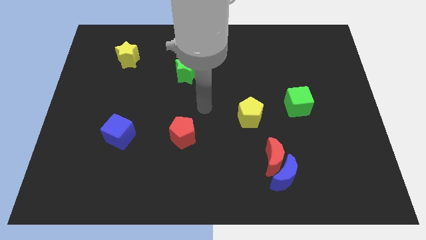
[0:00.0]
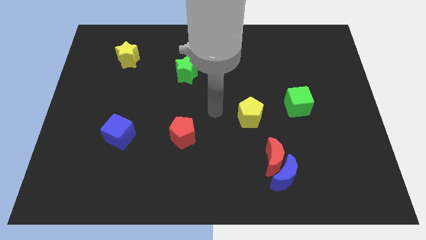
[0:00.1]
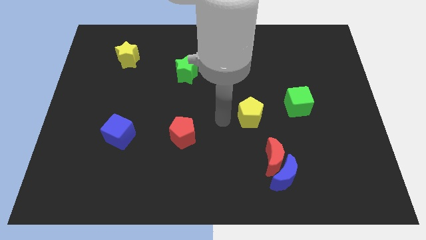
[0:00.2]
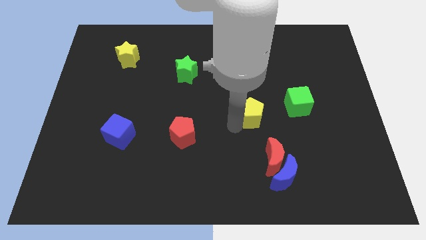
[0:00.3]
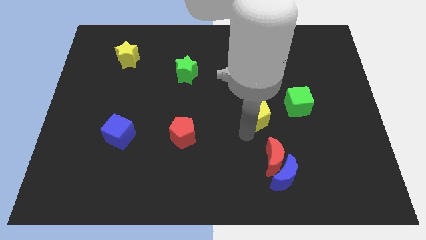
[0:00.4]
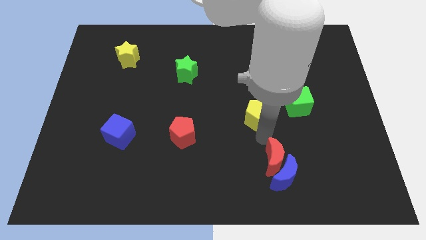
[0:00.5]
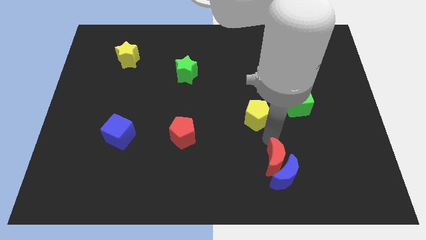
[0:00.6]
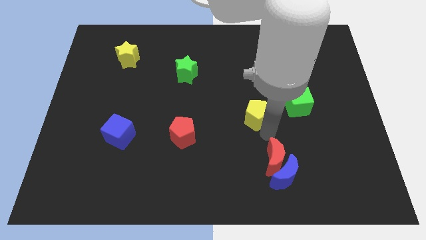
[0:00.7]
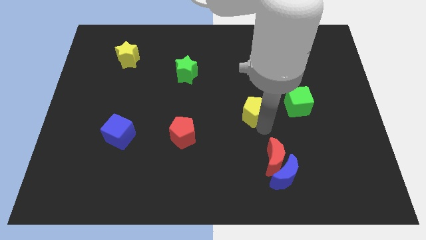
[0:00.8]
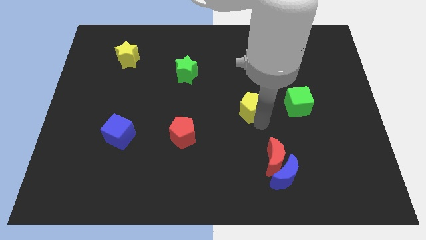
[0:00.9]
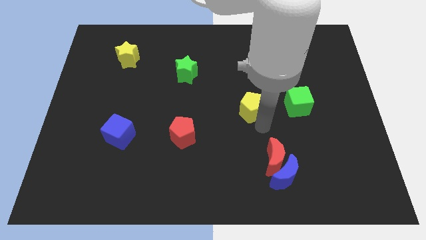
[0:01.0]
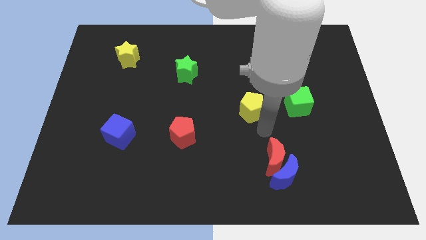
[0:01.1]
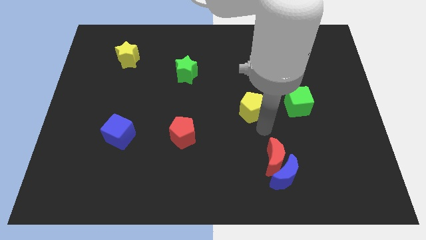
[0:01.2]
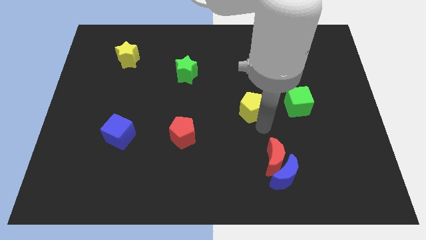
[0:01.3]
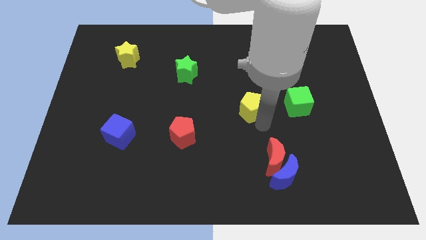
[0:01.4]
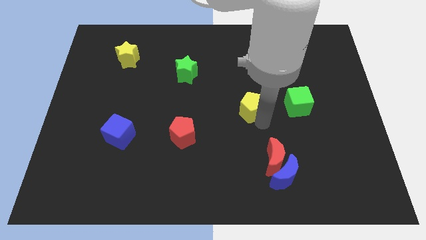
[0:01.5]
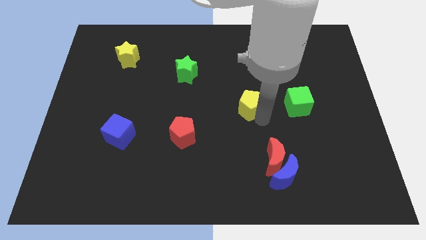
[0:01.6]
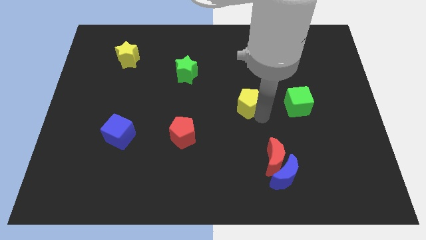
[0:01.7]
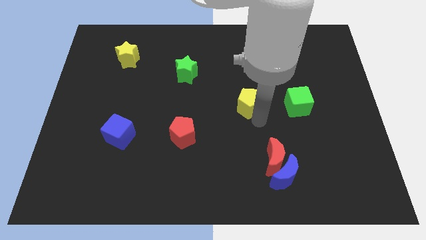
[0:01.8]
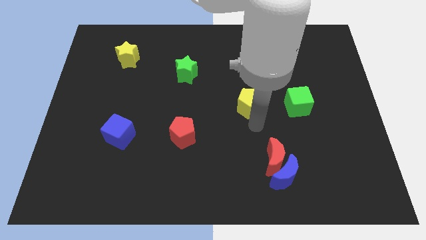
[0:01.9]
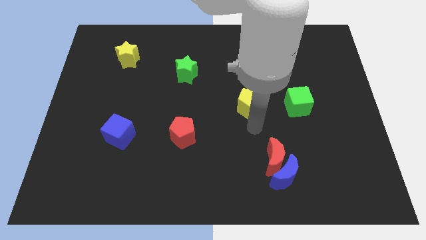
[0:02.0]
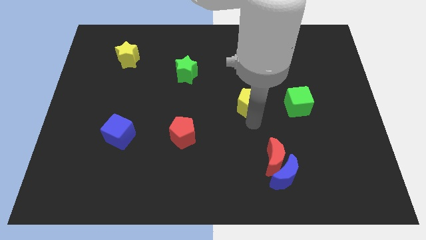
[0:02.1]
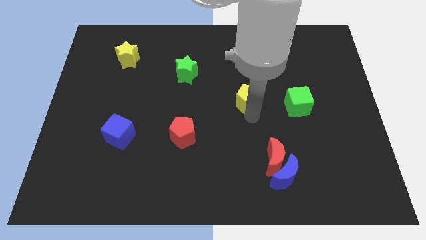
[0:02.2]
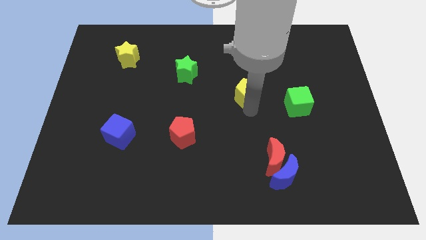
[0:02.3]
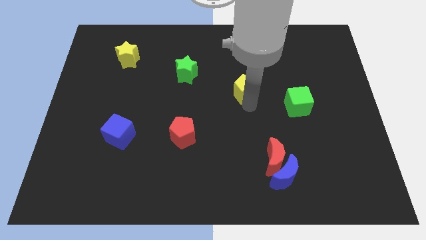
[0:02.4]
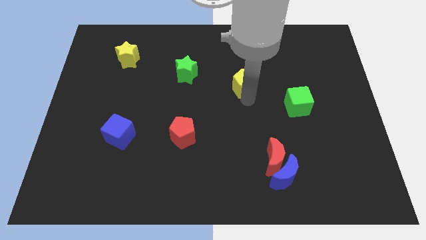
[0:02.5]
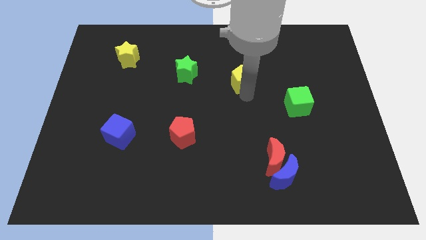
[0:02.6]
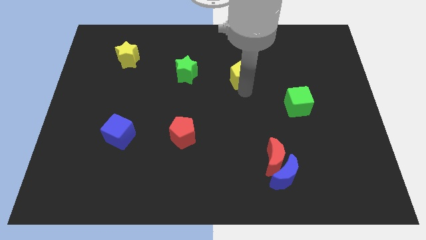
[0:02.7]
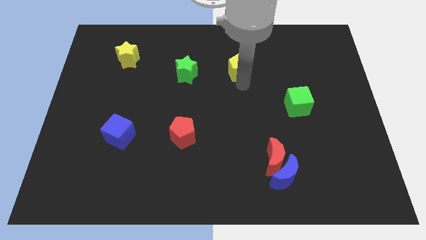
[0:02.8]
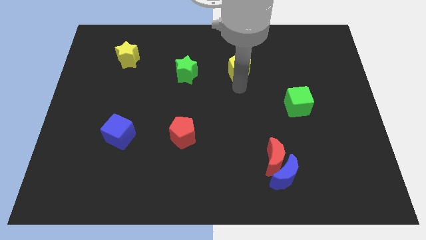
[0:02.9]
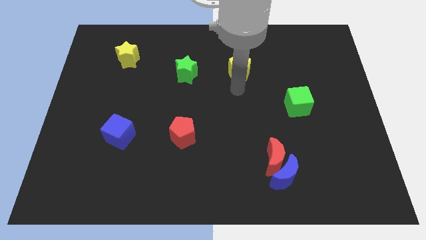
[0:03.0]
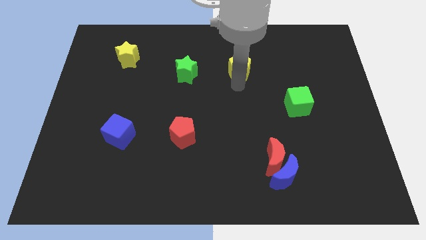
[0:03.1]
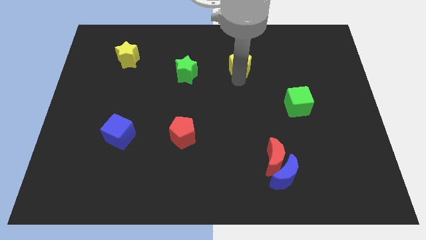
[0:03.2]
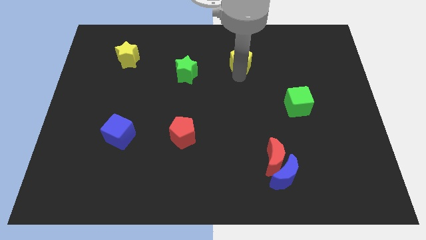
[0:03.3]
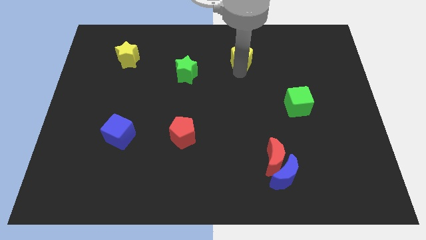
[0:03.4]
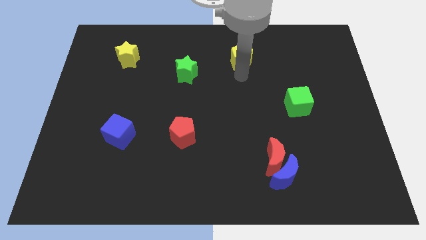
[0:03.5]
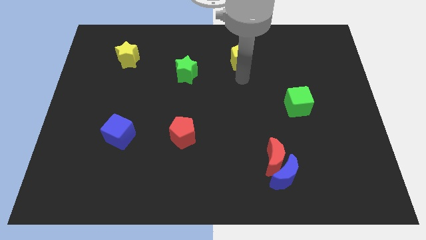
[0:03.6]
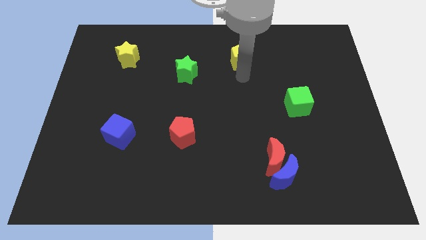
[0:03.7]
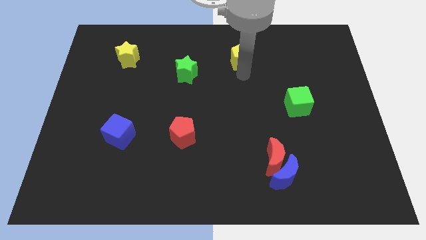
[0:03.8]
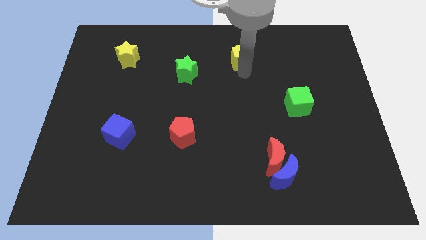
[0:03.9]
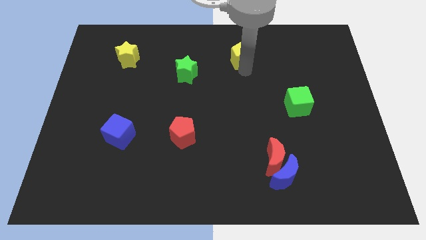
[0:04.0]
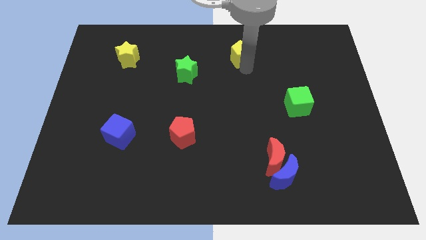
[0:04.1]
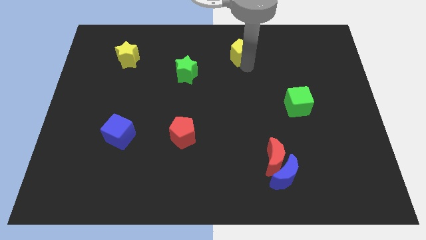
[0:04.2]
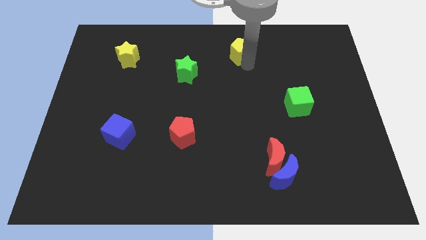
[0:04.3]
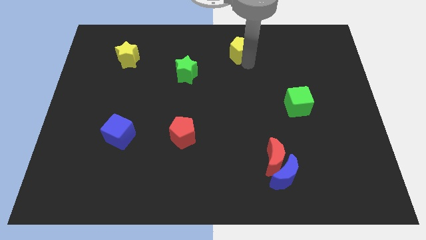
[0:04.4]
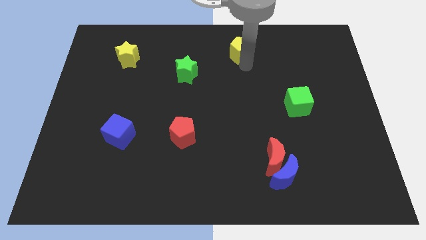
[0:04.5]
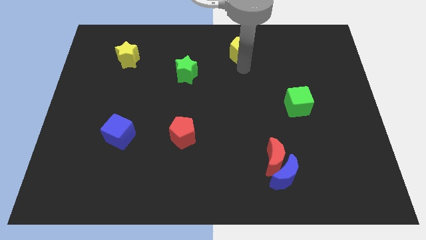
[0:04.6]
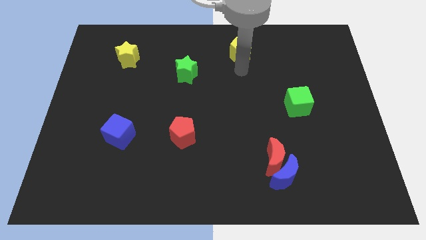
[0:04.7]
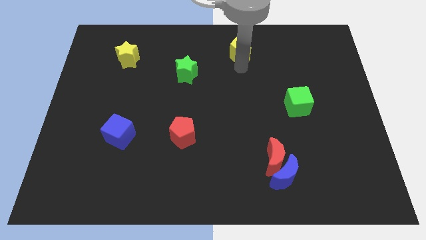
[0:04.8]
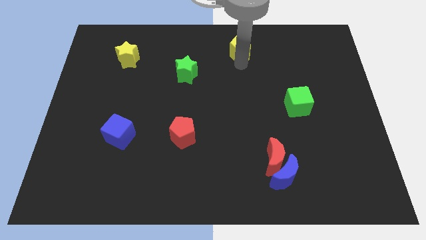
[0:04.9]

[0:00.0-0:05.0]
push the yellow pentagon to the top side

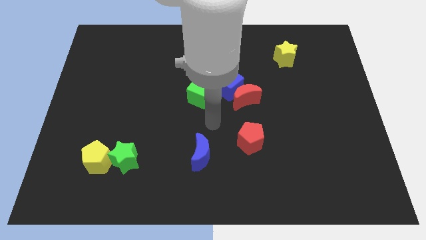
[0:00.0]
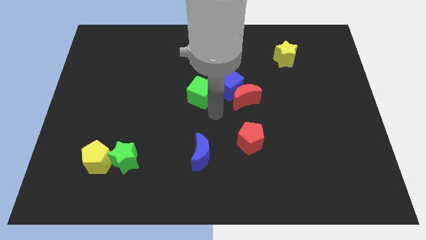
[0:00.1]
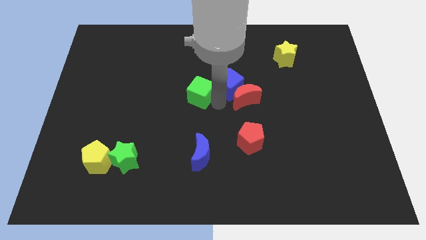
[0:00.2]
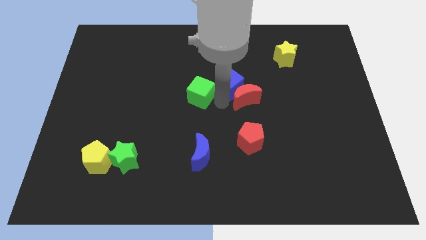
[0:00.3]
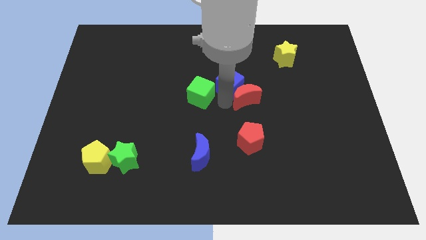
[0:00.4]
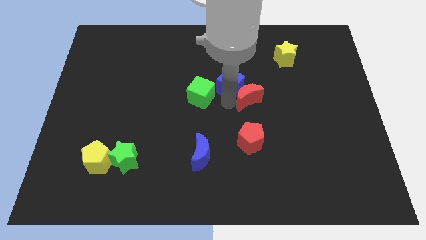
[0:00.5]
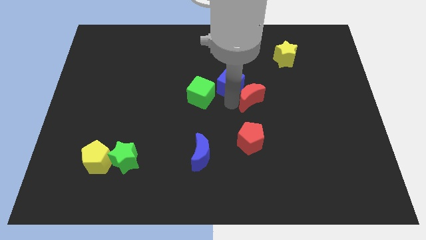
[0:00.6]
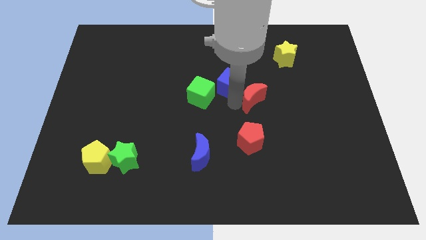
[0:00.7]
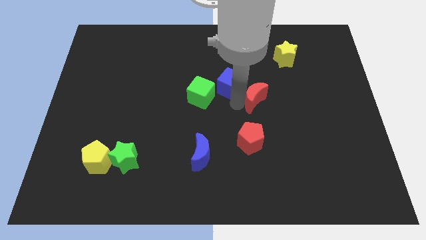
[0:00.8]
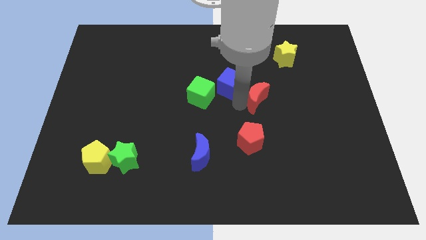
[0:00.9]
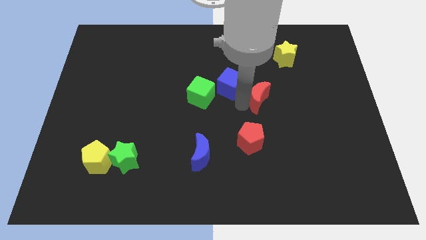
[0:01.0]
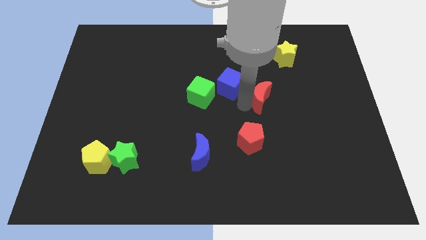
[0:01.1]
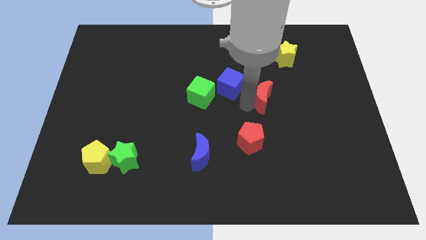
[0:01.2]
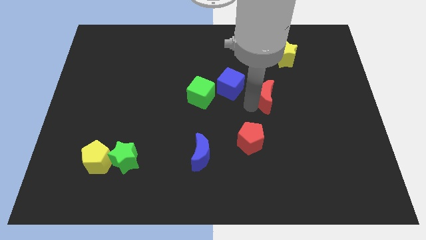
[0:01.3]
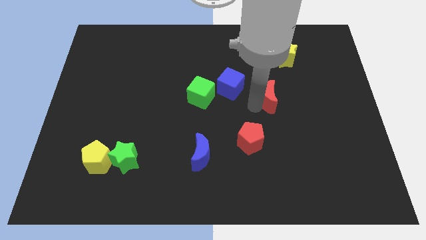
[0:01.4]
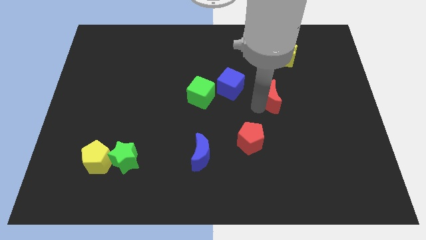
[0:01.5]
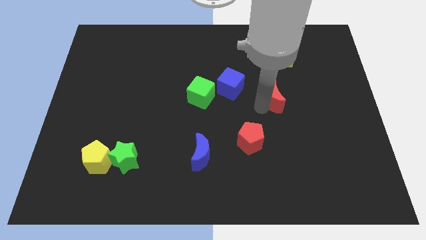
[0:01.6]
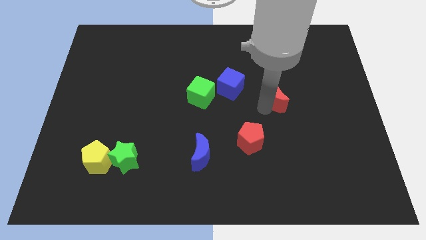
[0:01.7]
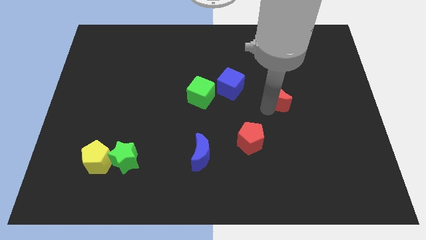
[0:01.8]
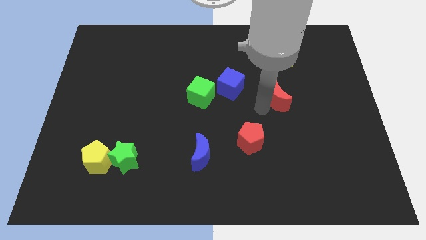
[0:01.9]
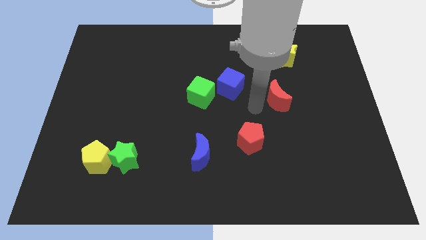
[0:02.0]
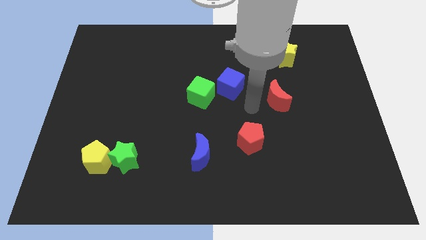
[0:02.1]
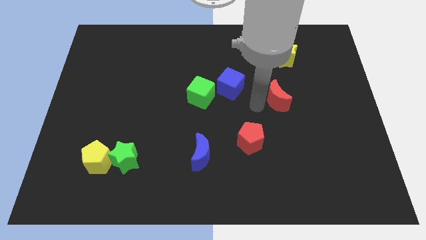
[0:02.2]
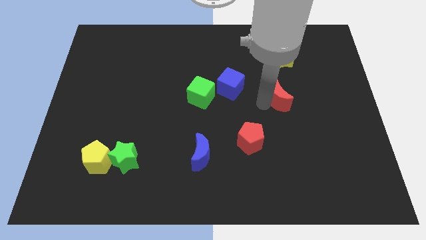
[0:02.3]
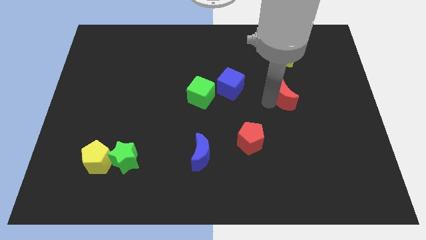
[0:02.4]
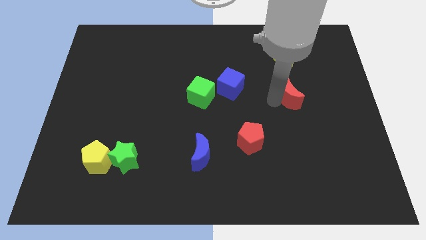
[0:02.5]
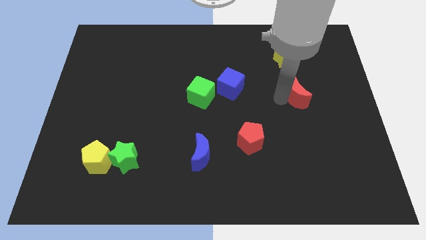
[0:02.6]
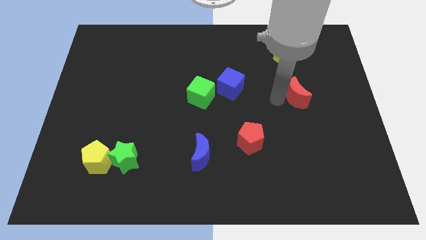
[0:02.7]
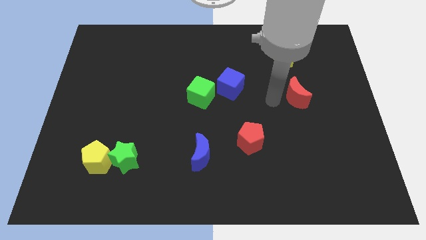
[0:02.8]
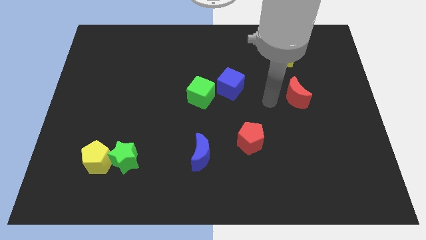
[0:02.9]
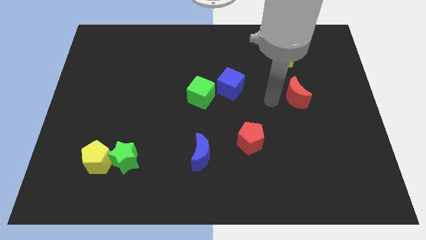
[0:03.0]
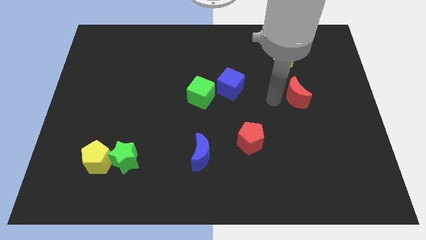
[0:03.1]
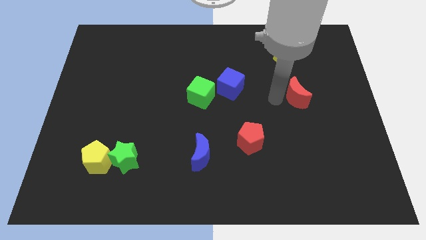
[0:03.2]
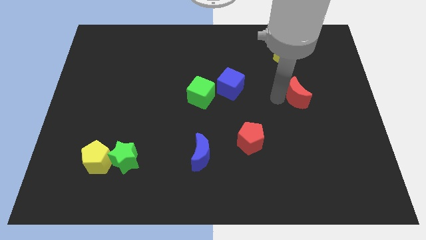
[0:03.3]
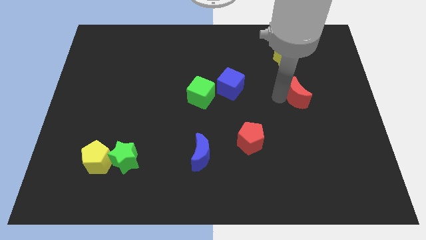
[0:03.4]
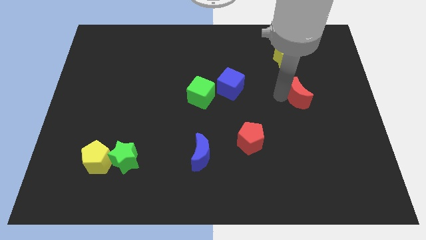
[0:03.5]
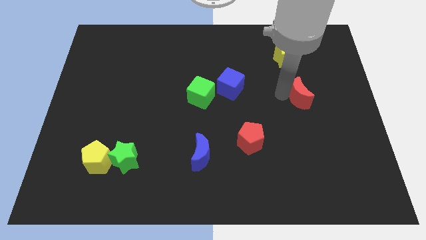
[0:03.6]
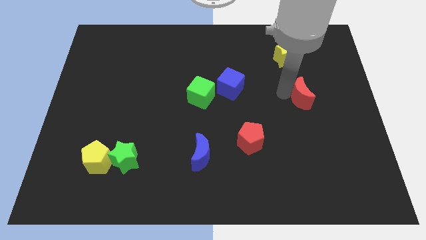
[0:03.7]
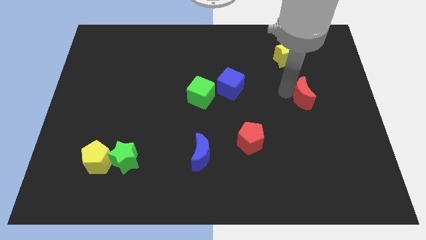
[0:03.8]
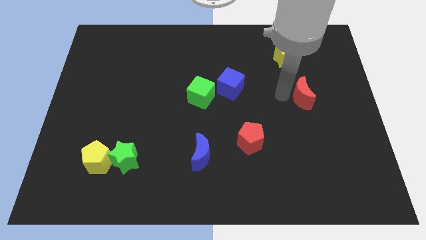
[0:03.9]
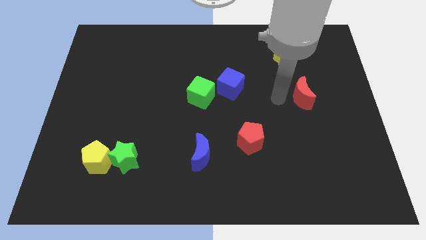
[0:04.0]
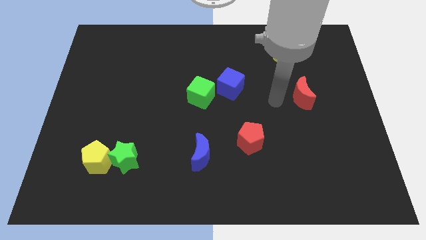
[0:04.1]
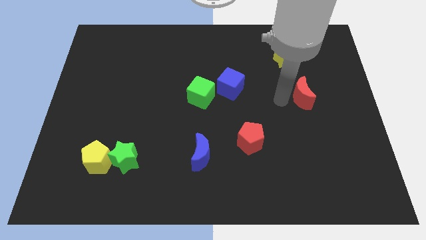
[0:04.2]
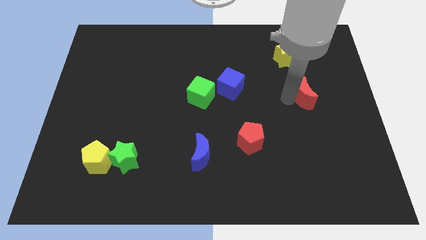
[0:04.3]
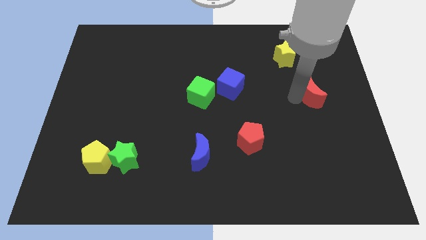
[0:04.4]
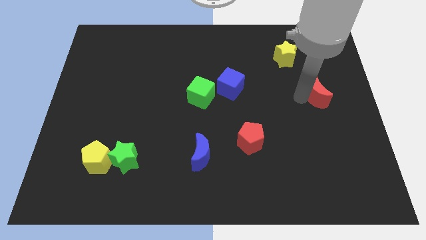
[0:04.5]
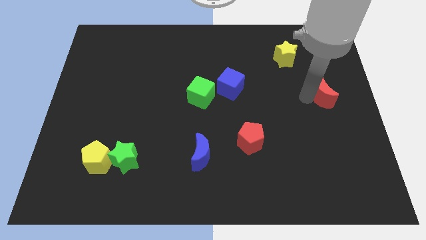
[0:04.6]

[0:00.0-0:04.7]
move the red moon to the right side
